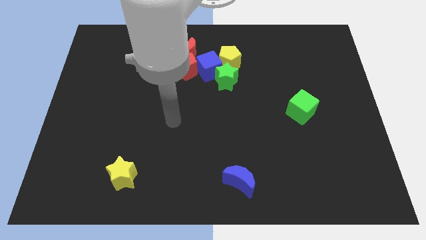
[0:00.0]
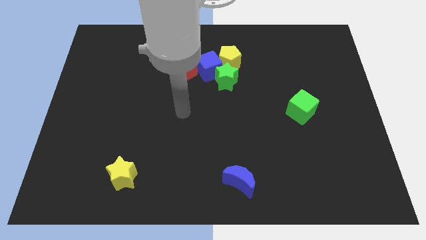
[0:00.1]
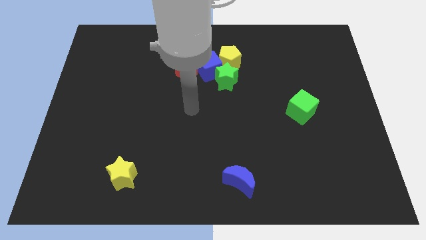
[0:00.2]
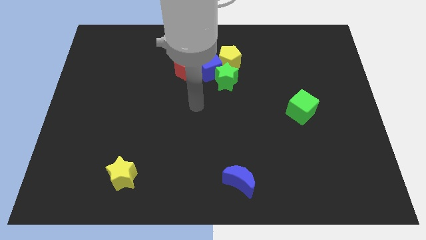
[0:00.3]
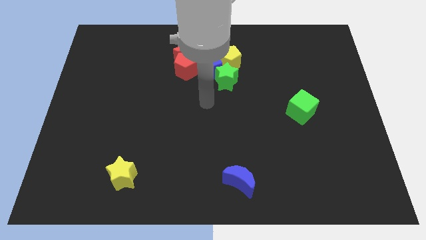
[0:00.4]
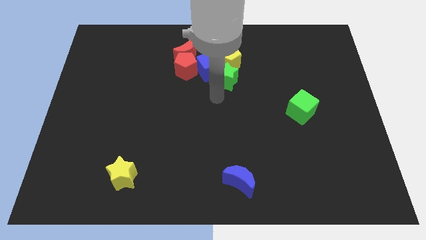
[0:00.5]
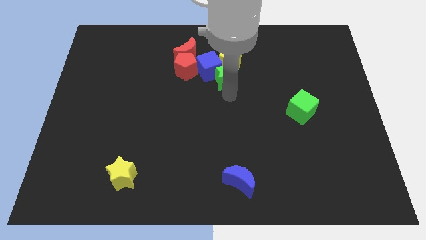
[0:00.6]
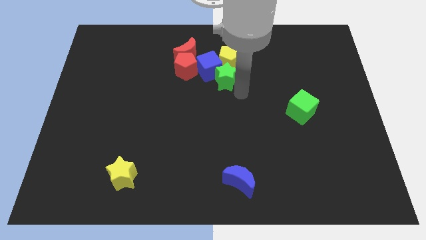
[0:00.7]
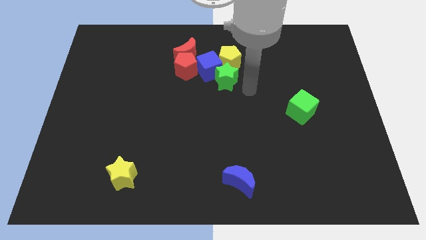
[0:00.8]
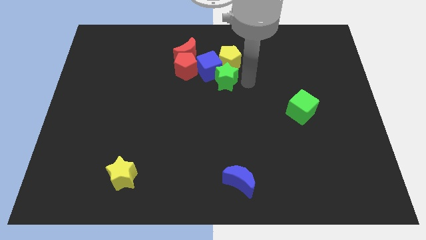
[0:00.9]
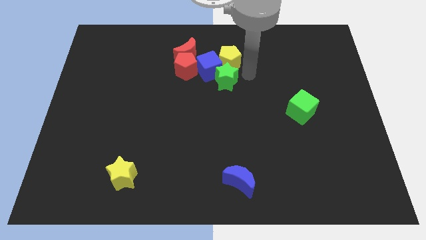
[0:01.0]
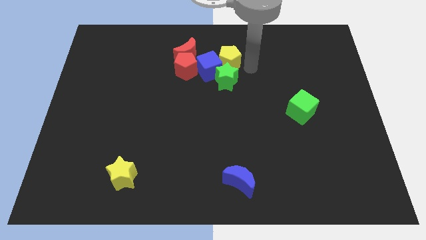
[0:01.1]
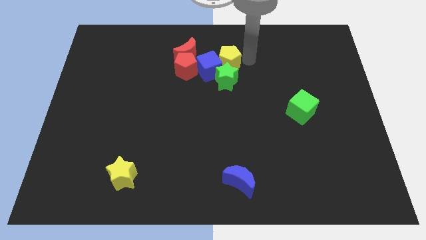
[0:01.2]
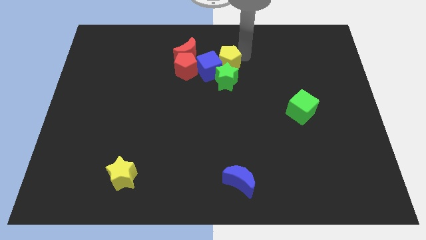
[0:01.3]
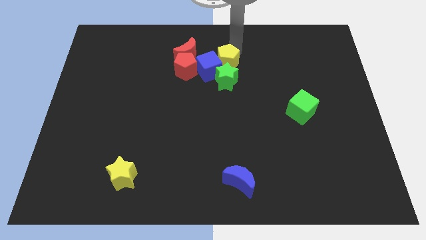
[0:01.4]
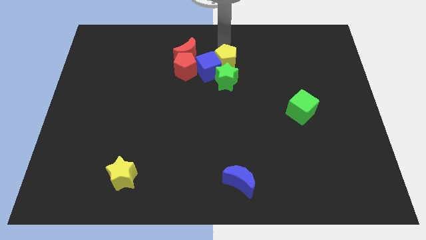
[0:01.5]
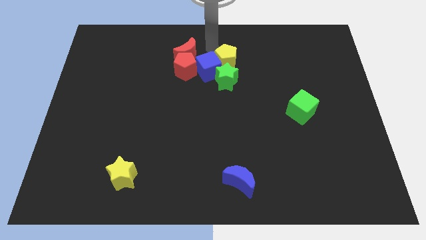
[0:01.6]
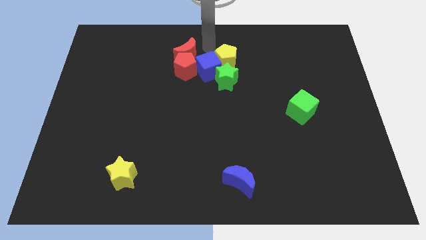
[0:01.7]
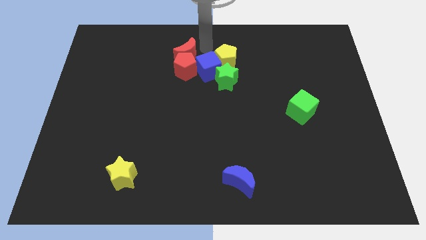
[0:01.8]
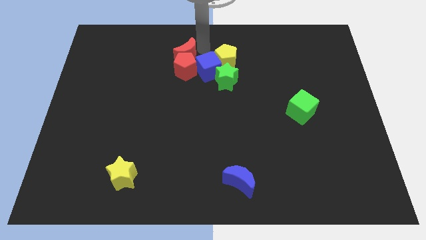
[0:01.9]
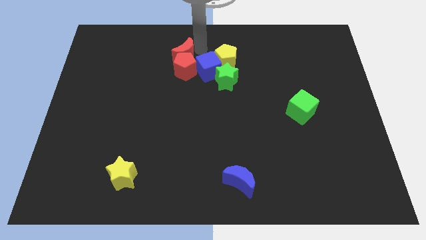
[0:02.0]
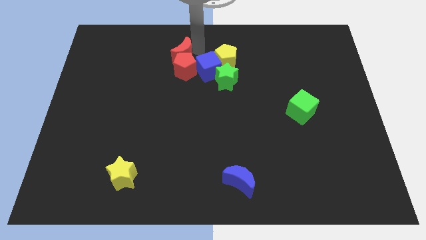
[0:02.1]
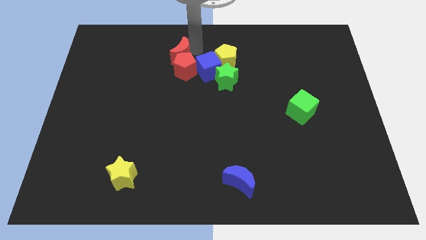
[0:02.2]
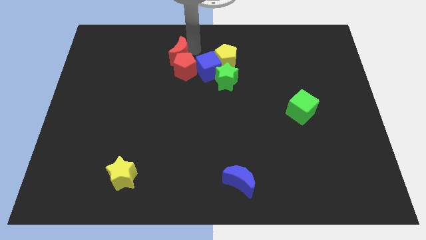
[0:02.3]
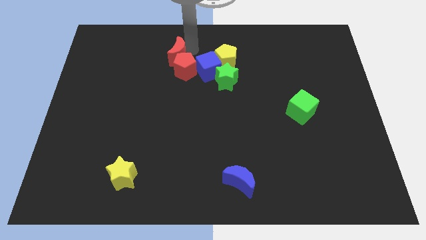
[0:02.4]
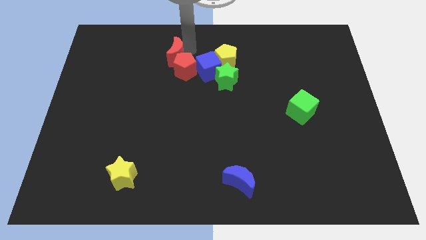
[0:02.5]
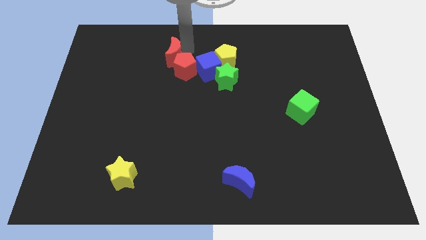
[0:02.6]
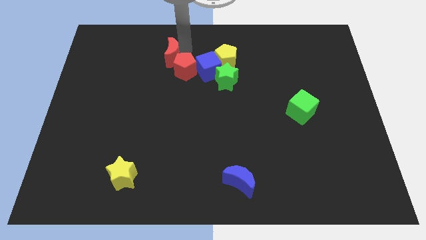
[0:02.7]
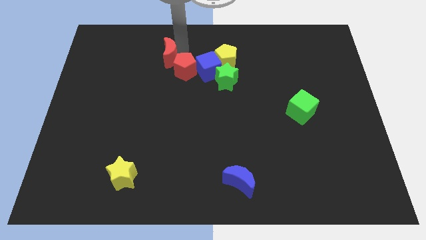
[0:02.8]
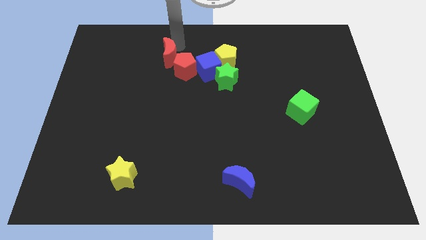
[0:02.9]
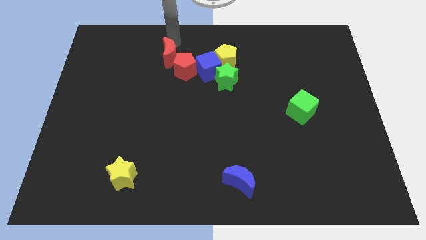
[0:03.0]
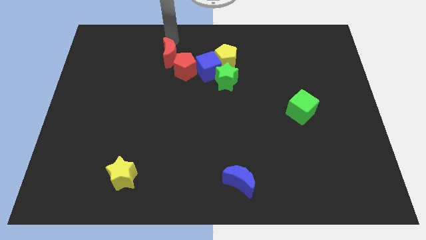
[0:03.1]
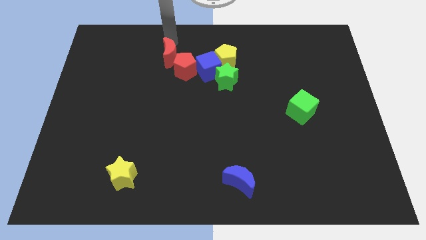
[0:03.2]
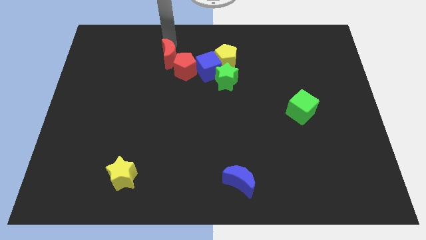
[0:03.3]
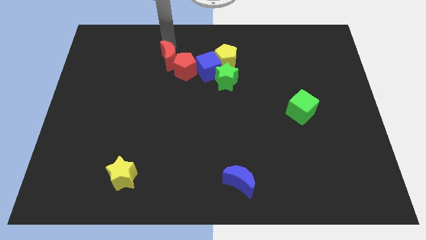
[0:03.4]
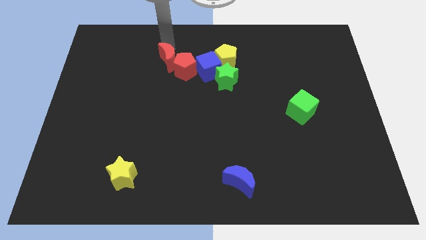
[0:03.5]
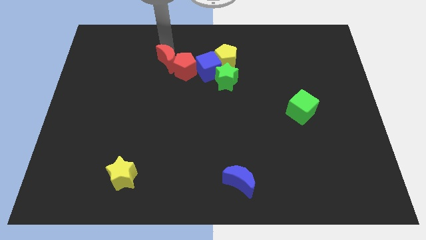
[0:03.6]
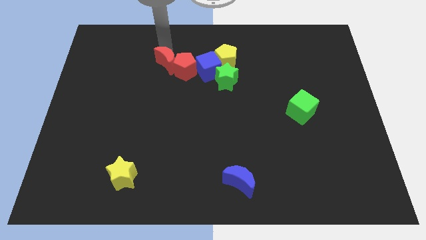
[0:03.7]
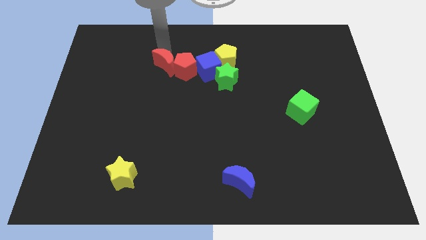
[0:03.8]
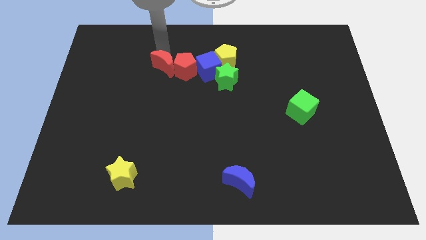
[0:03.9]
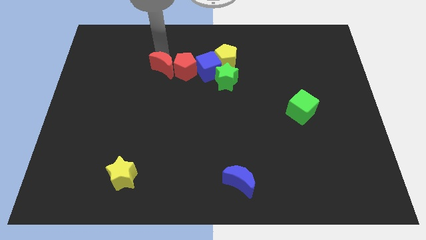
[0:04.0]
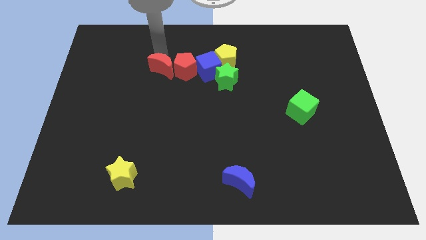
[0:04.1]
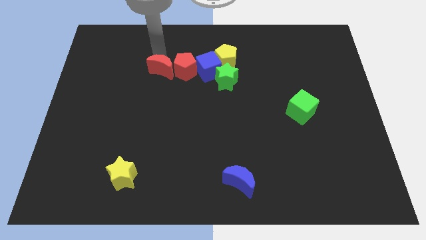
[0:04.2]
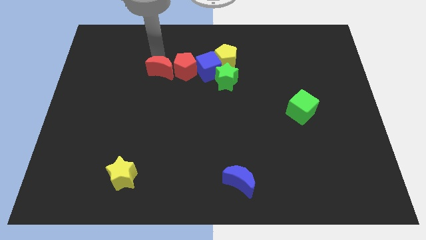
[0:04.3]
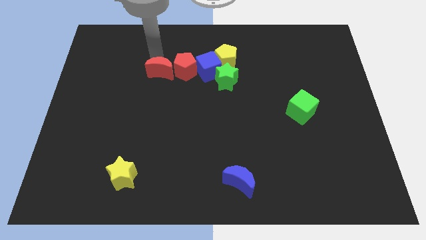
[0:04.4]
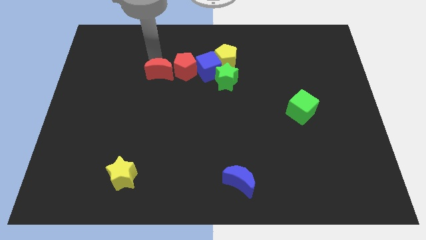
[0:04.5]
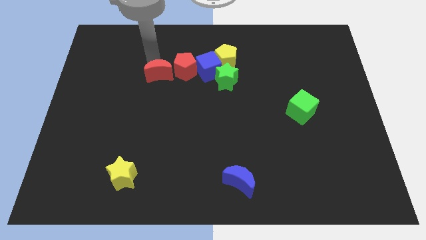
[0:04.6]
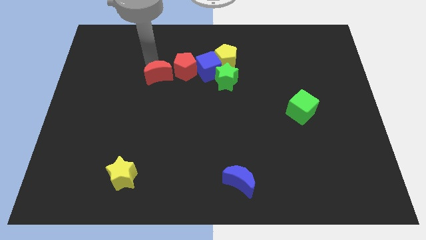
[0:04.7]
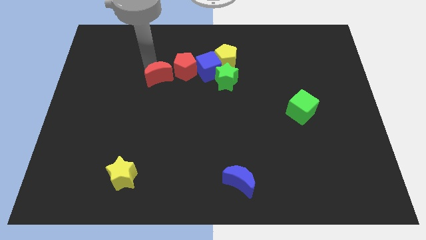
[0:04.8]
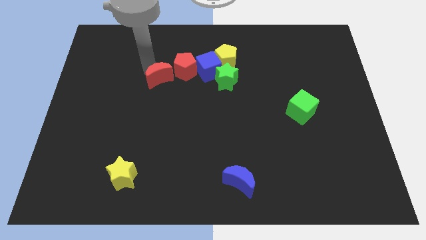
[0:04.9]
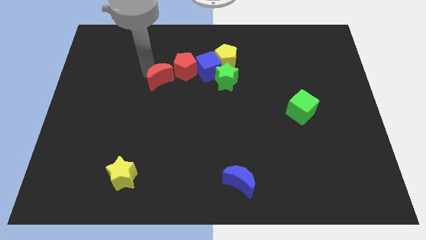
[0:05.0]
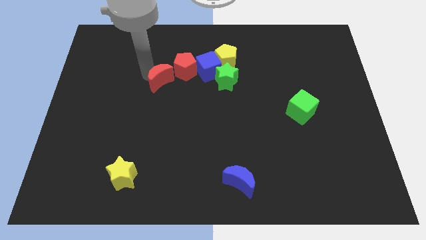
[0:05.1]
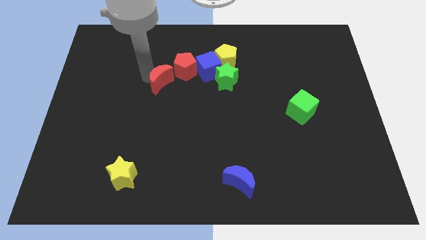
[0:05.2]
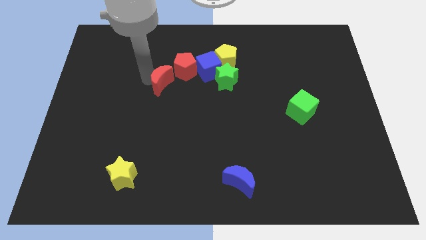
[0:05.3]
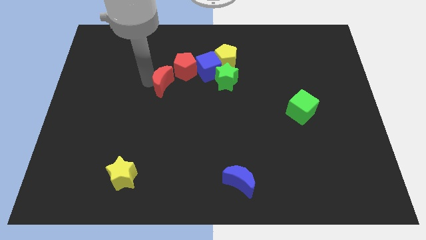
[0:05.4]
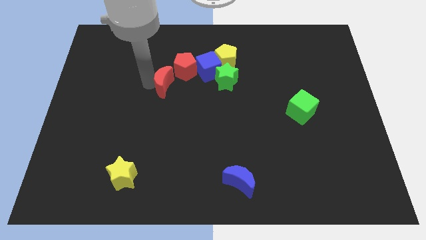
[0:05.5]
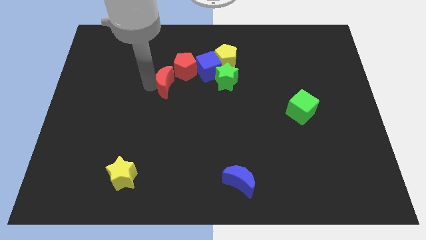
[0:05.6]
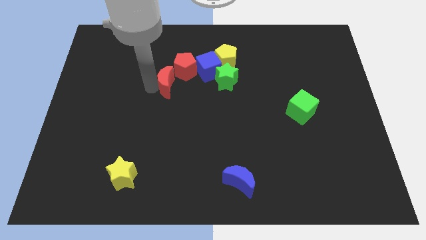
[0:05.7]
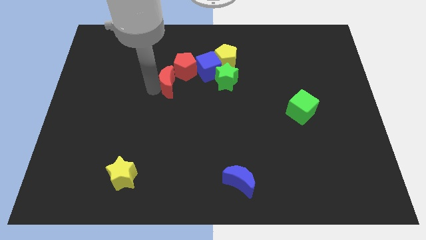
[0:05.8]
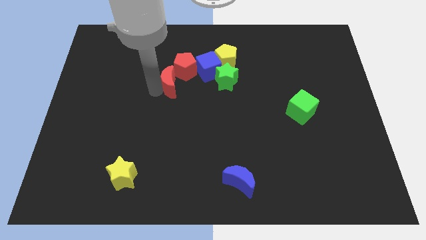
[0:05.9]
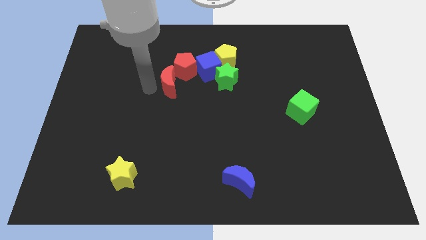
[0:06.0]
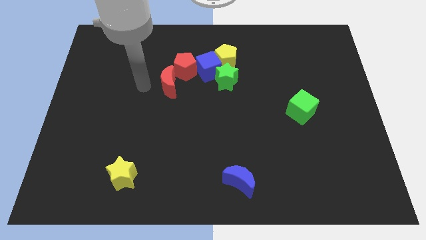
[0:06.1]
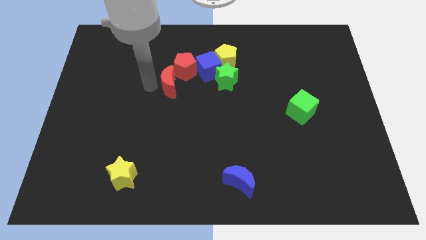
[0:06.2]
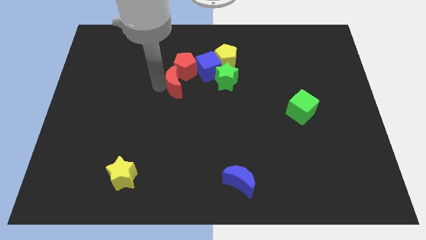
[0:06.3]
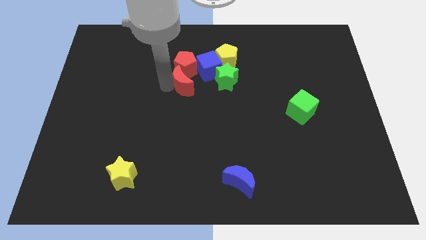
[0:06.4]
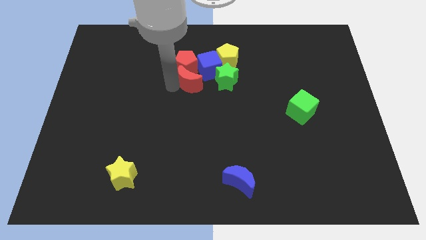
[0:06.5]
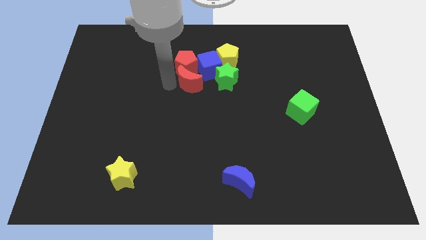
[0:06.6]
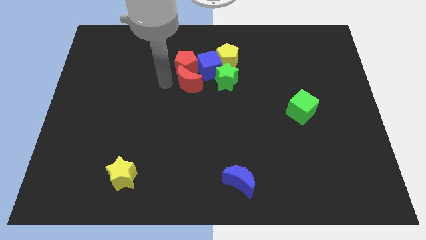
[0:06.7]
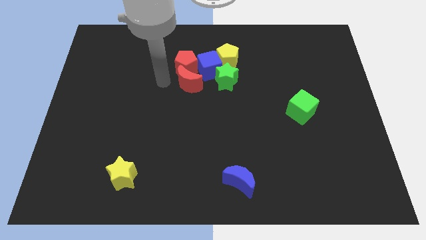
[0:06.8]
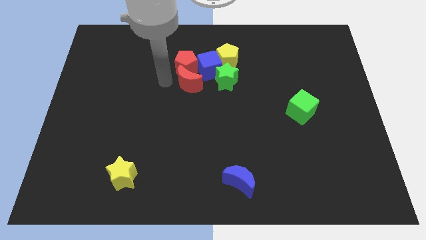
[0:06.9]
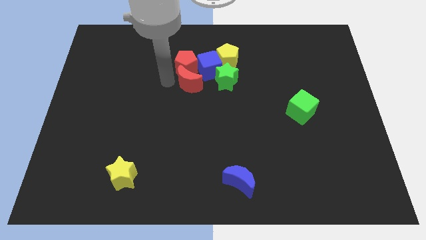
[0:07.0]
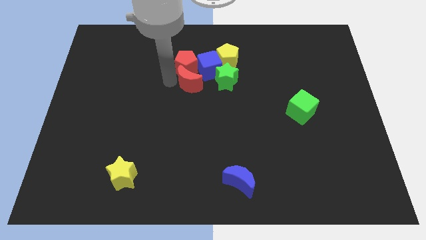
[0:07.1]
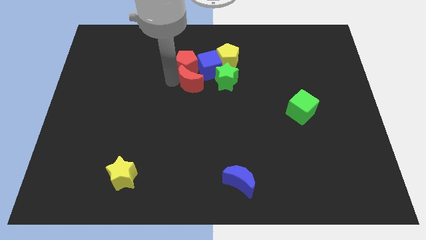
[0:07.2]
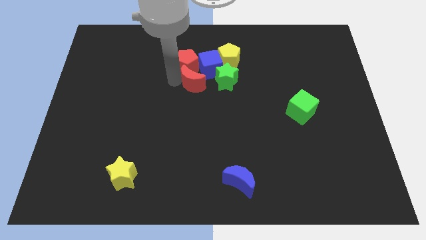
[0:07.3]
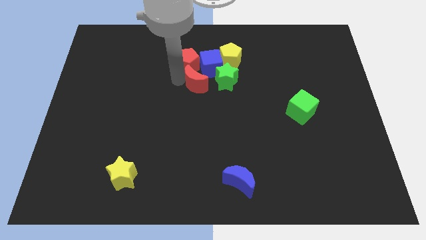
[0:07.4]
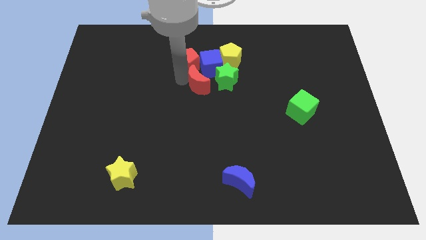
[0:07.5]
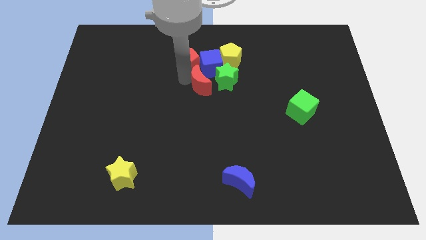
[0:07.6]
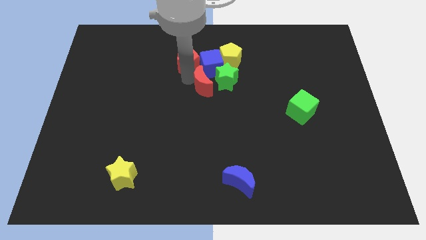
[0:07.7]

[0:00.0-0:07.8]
push the red moon towards the green star

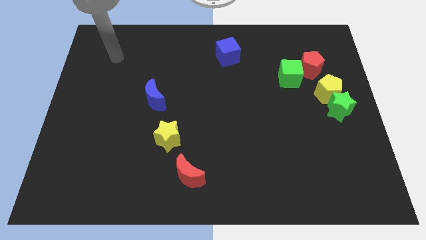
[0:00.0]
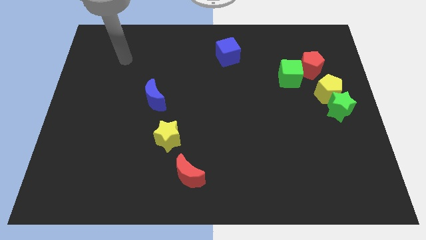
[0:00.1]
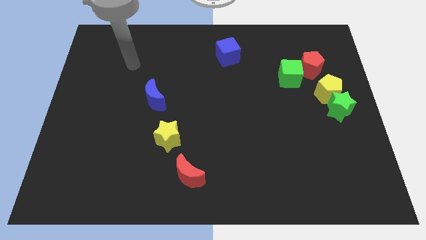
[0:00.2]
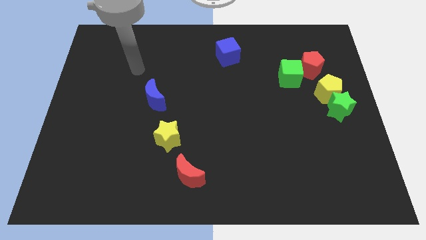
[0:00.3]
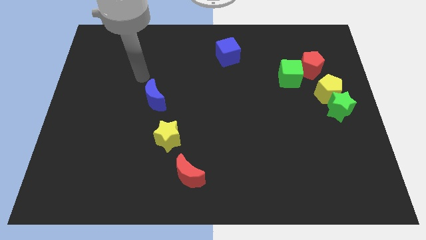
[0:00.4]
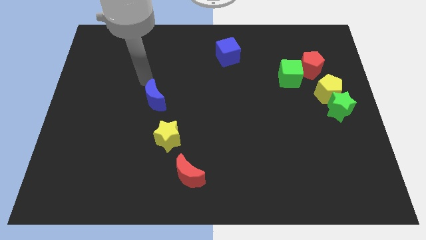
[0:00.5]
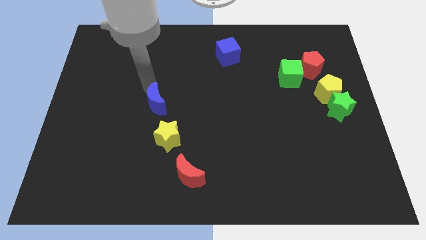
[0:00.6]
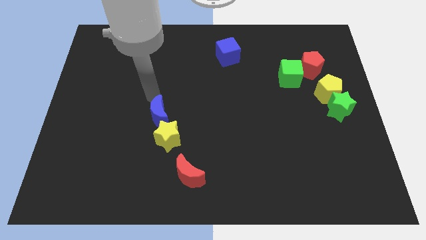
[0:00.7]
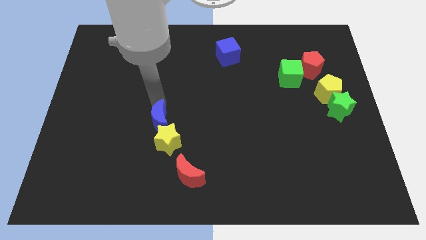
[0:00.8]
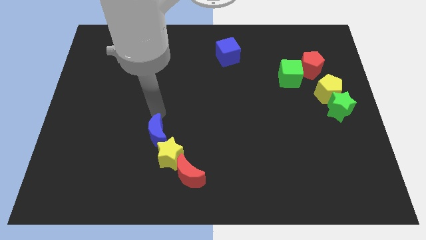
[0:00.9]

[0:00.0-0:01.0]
push the yellow star close to the red moon
